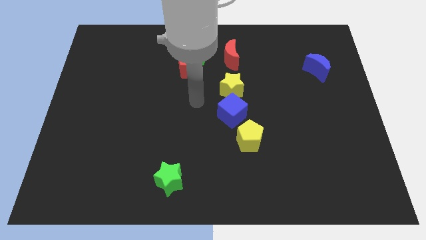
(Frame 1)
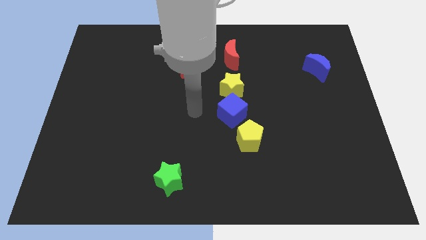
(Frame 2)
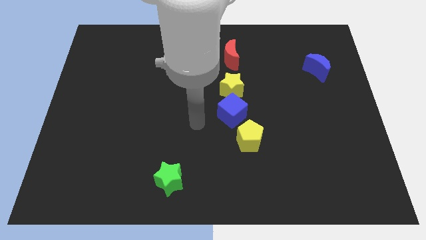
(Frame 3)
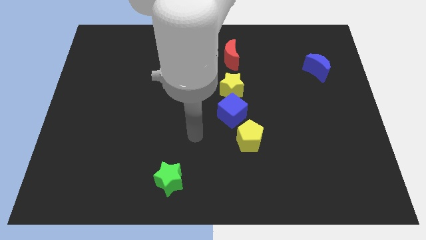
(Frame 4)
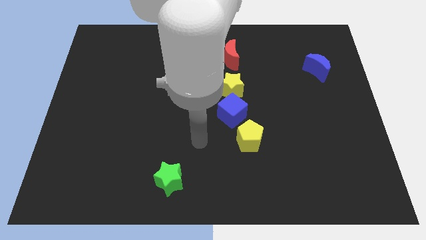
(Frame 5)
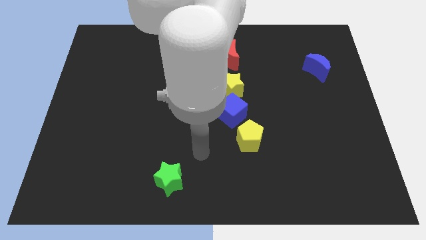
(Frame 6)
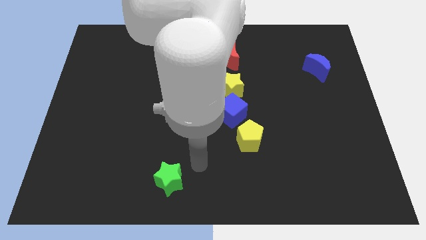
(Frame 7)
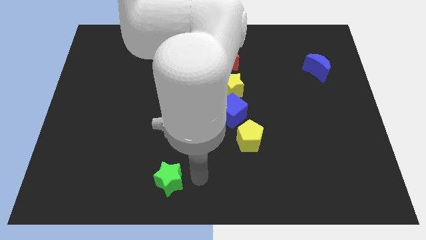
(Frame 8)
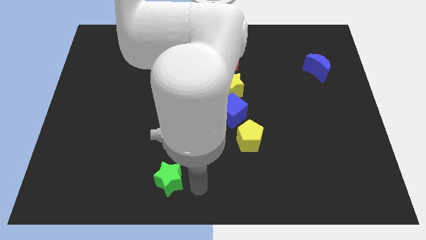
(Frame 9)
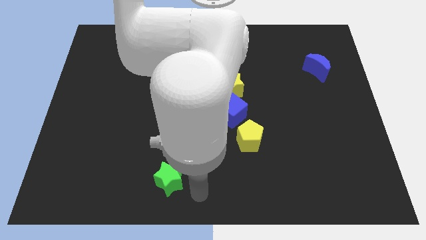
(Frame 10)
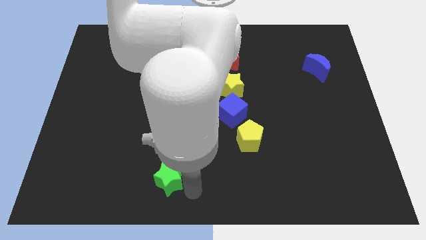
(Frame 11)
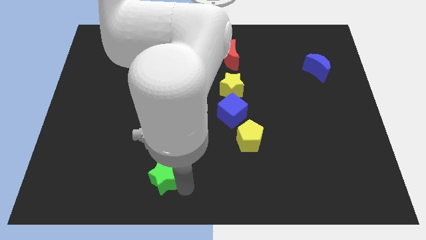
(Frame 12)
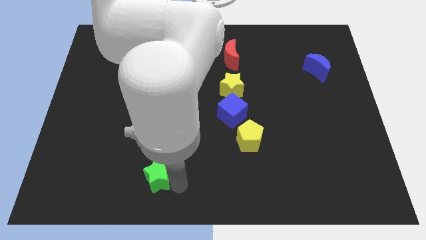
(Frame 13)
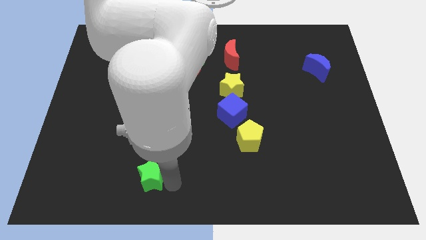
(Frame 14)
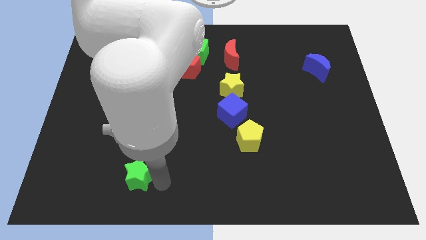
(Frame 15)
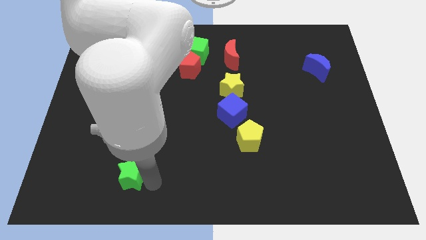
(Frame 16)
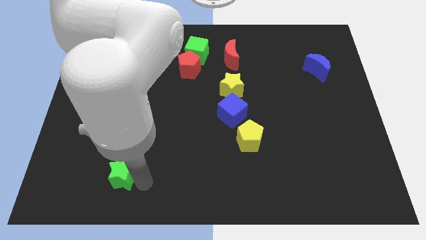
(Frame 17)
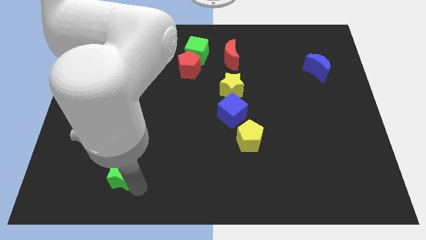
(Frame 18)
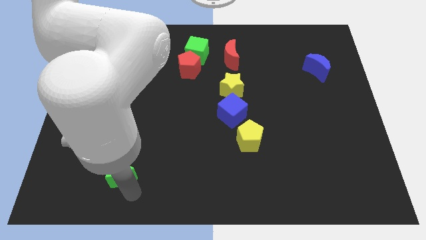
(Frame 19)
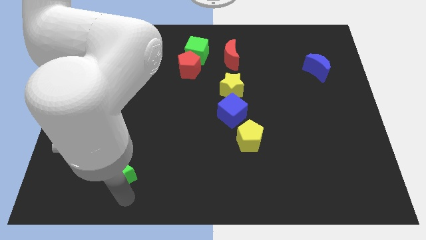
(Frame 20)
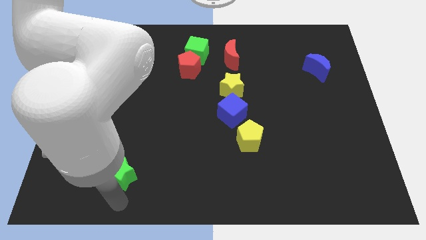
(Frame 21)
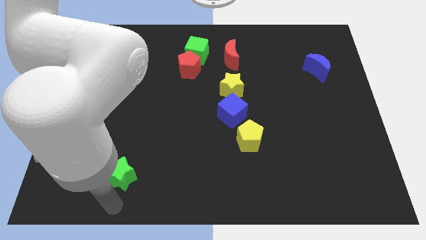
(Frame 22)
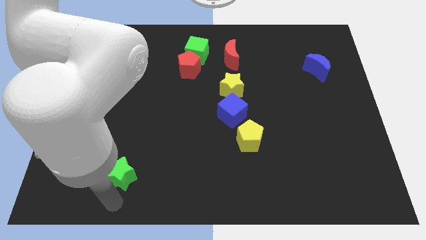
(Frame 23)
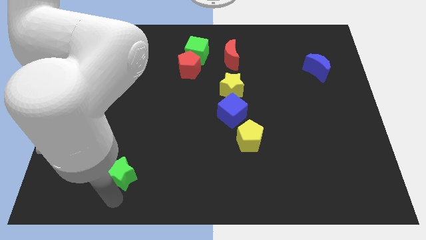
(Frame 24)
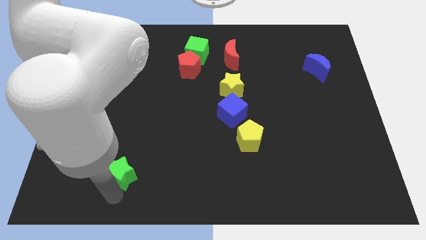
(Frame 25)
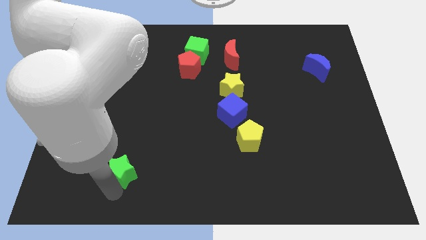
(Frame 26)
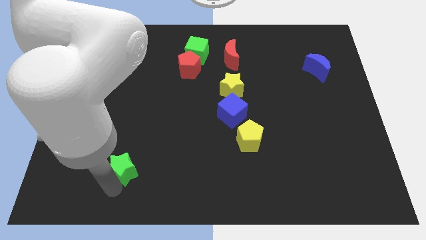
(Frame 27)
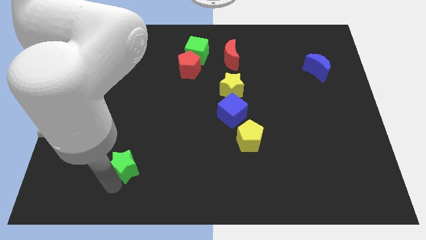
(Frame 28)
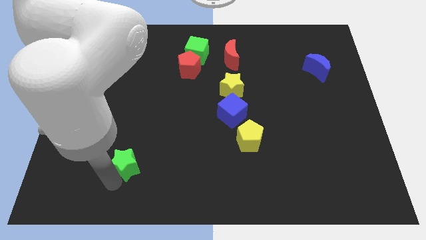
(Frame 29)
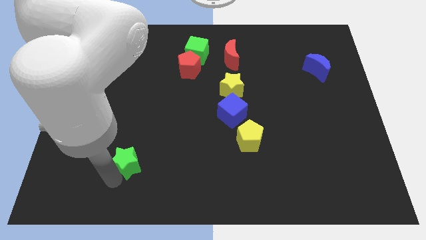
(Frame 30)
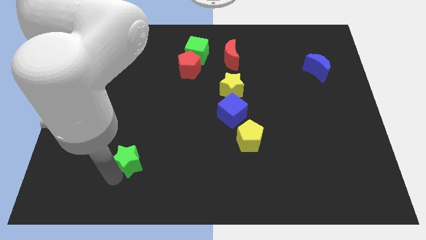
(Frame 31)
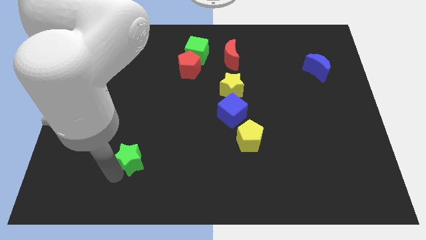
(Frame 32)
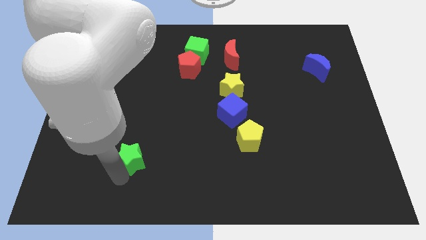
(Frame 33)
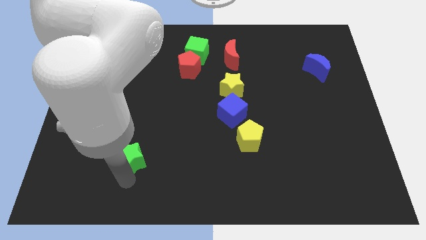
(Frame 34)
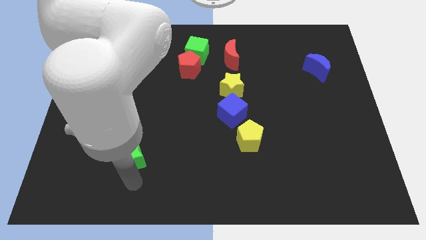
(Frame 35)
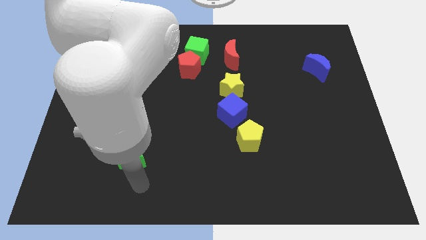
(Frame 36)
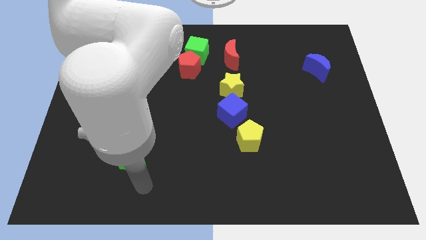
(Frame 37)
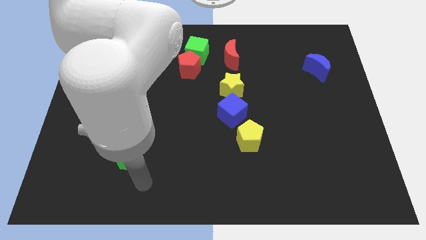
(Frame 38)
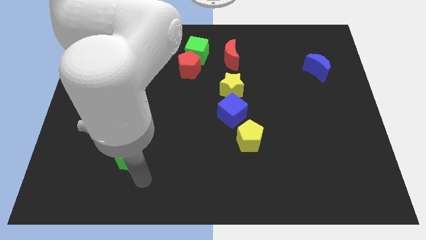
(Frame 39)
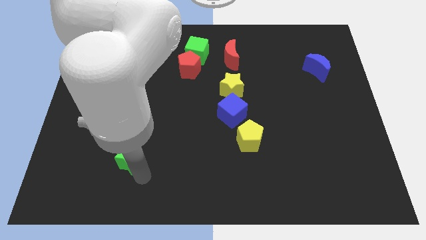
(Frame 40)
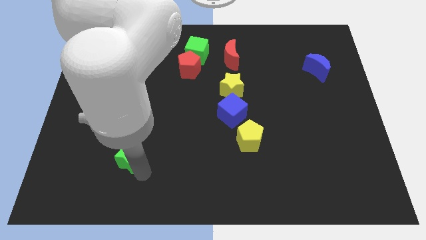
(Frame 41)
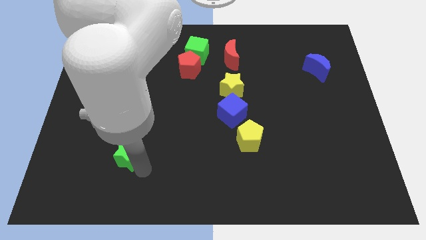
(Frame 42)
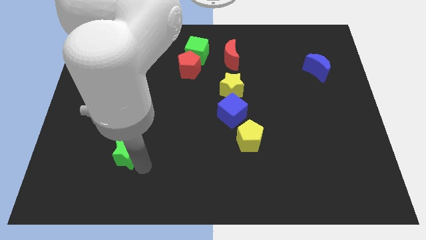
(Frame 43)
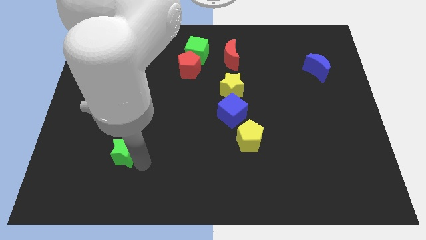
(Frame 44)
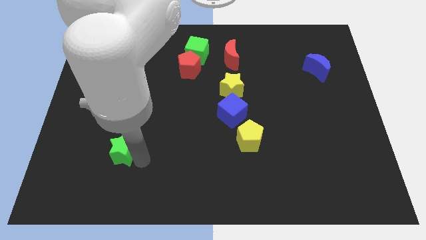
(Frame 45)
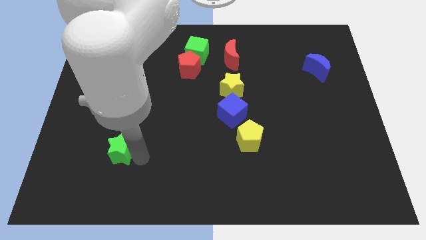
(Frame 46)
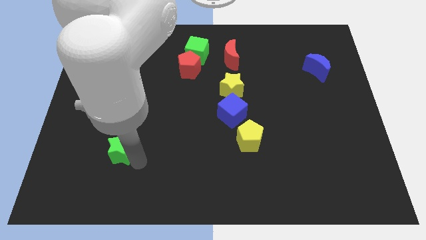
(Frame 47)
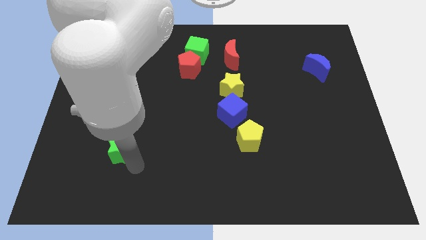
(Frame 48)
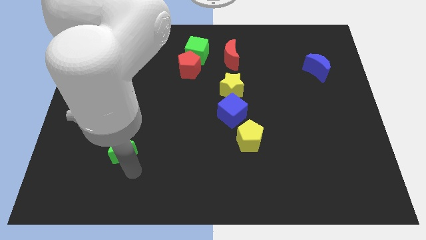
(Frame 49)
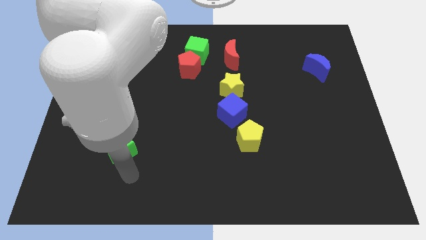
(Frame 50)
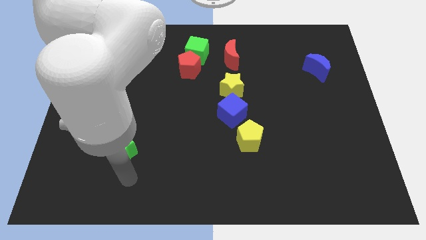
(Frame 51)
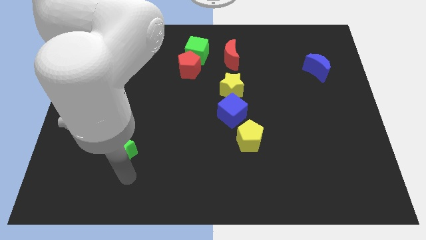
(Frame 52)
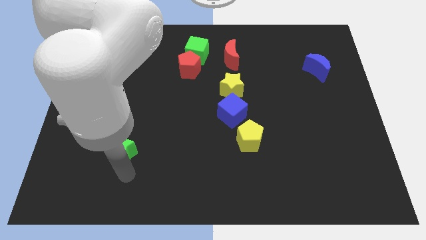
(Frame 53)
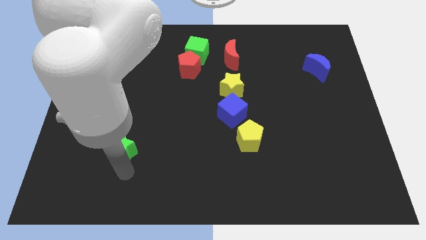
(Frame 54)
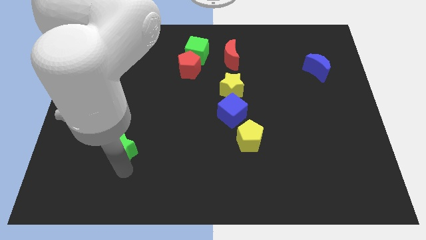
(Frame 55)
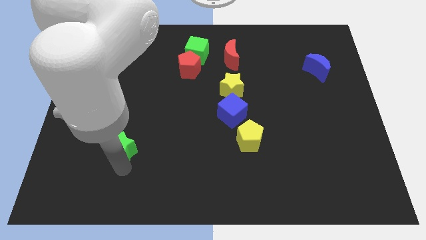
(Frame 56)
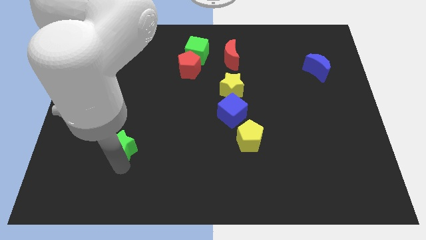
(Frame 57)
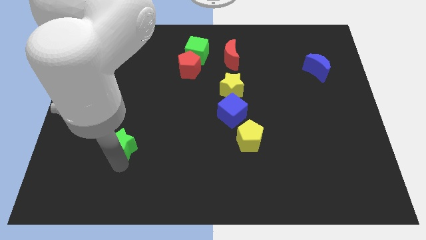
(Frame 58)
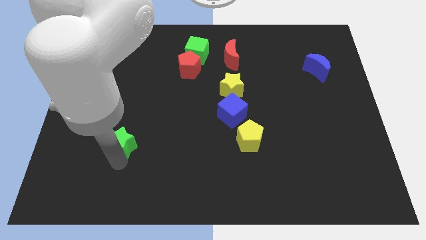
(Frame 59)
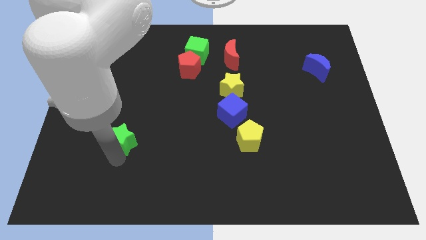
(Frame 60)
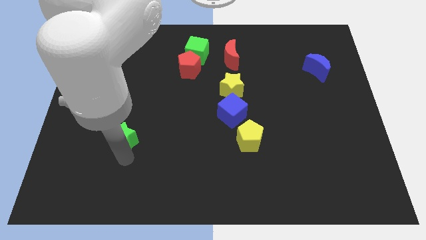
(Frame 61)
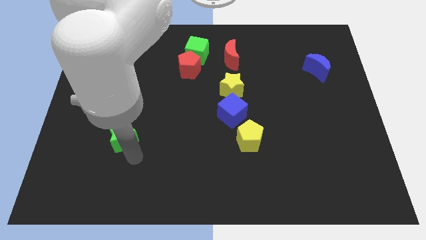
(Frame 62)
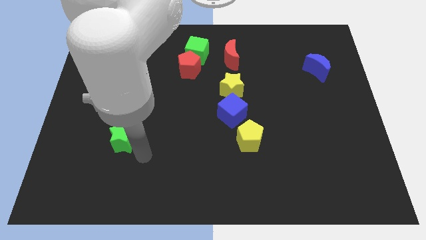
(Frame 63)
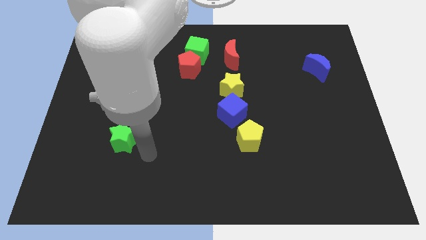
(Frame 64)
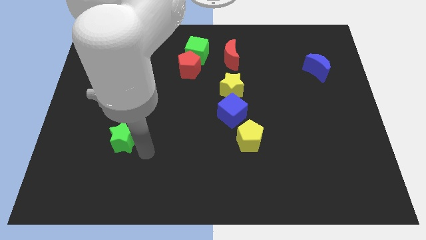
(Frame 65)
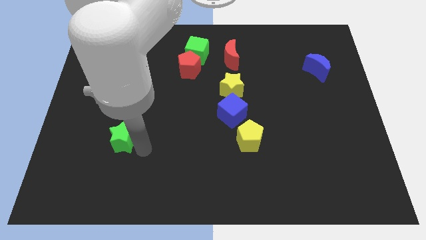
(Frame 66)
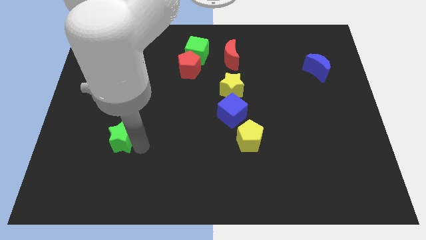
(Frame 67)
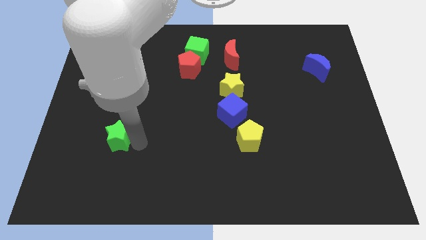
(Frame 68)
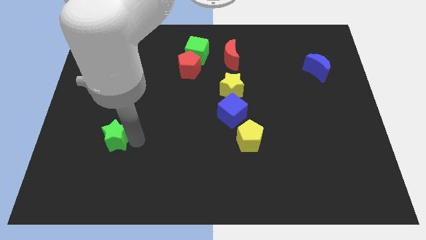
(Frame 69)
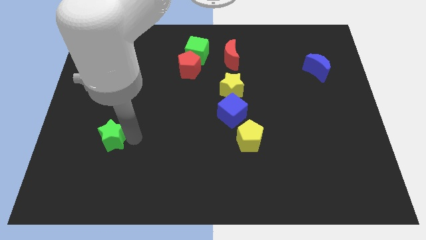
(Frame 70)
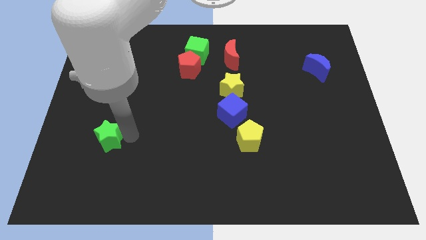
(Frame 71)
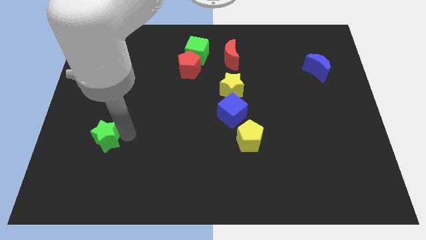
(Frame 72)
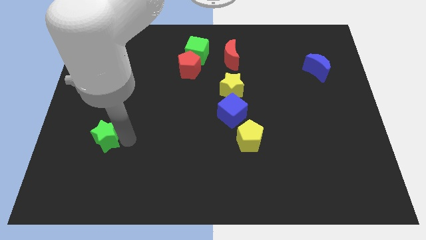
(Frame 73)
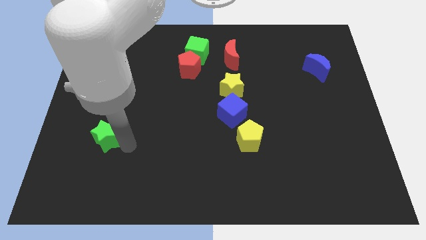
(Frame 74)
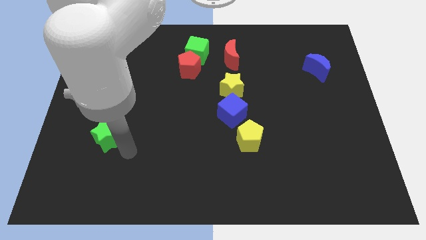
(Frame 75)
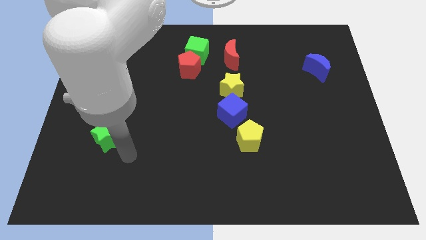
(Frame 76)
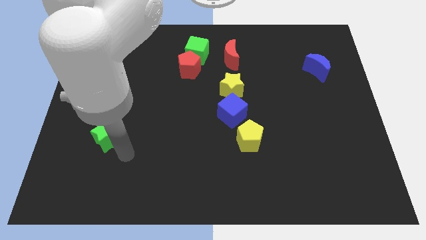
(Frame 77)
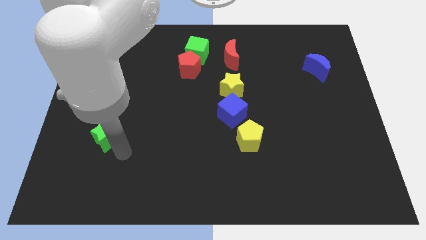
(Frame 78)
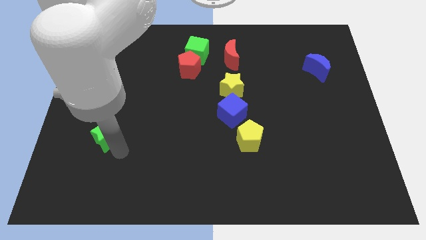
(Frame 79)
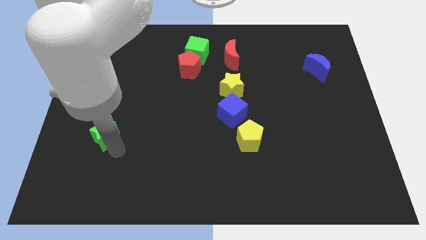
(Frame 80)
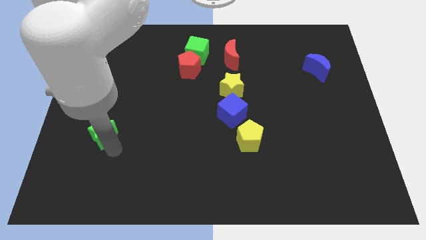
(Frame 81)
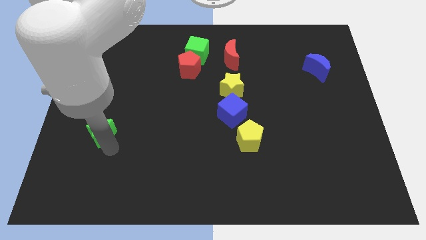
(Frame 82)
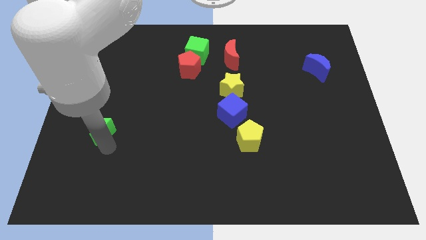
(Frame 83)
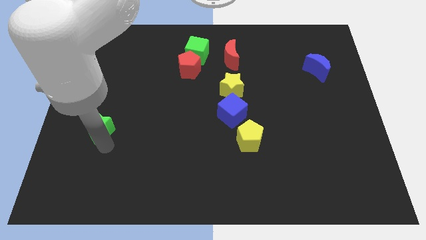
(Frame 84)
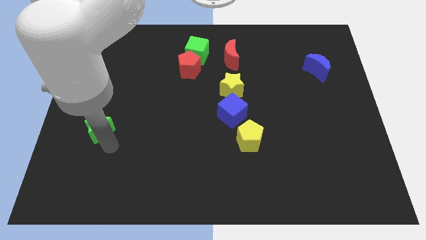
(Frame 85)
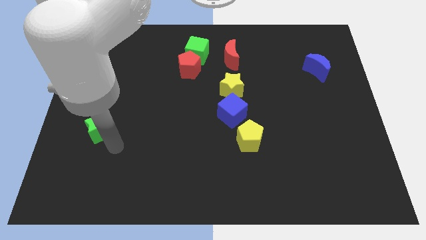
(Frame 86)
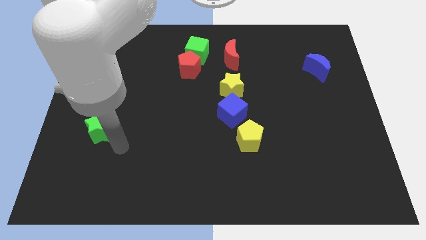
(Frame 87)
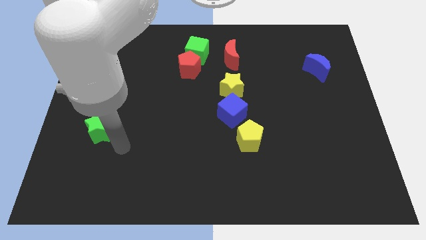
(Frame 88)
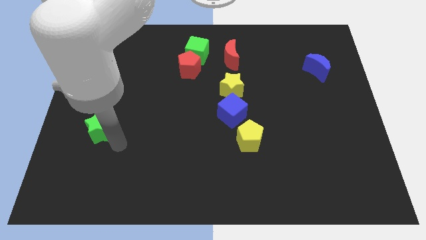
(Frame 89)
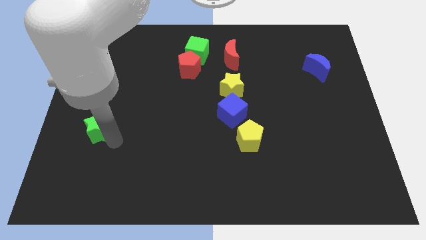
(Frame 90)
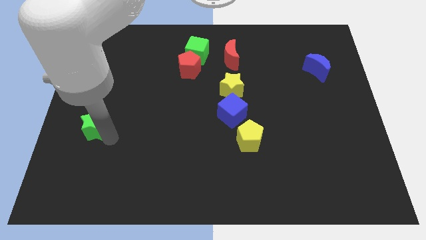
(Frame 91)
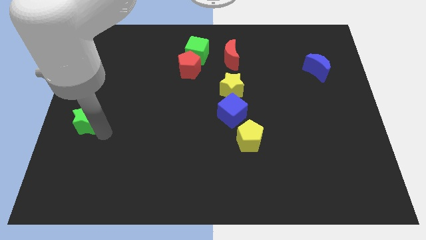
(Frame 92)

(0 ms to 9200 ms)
push the green star to the center left
